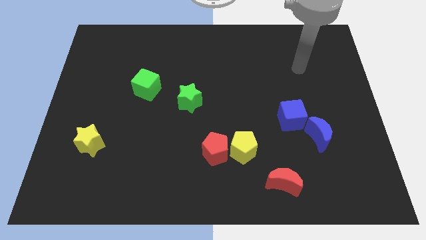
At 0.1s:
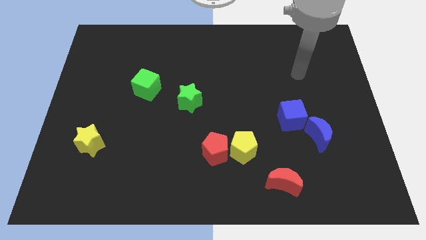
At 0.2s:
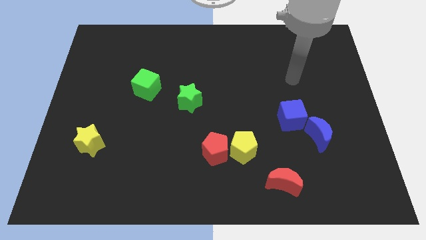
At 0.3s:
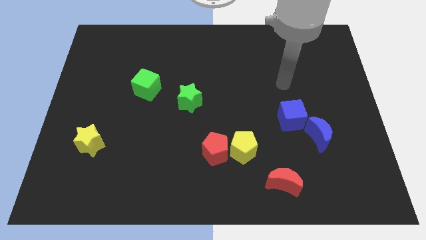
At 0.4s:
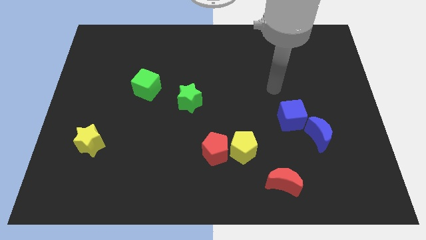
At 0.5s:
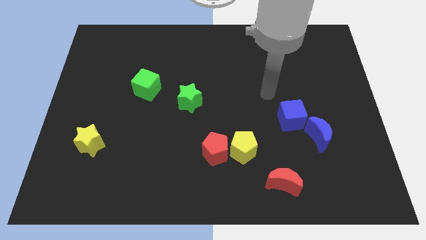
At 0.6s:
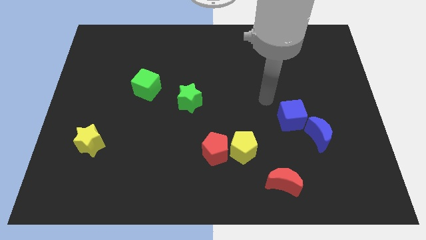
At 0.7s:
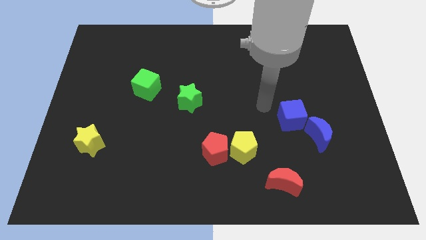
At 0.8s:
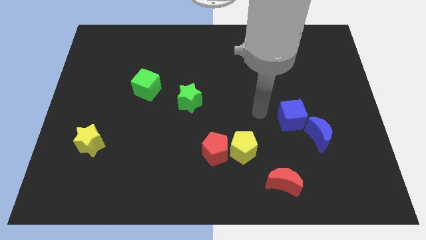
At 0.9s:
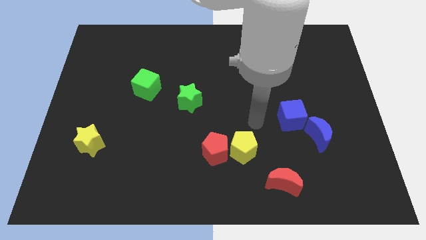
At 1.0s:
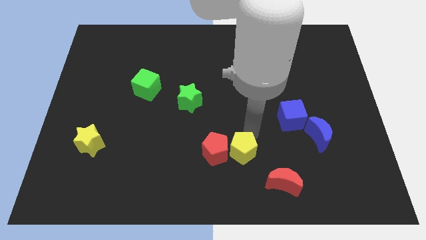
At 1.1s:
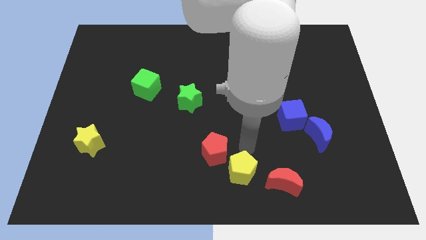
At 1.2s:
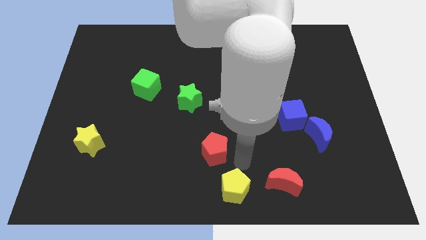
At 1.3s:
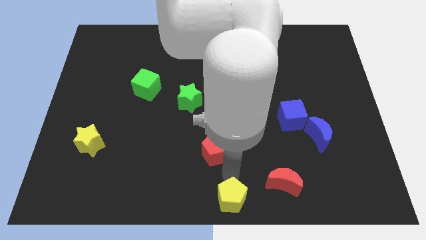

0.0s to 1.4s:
pull the red pentagon apart from the yellow pentagon

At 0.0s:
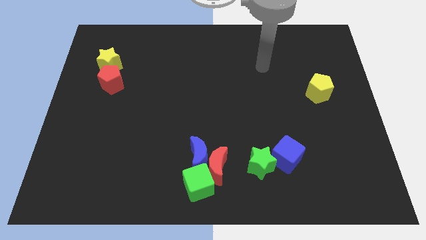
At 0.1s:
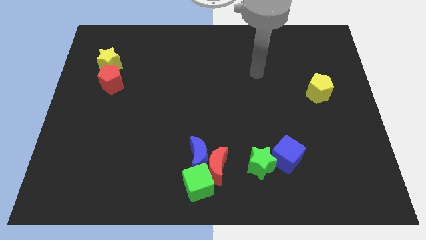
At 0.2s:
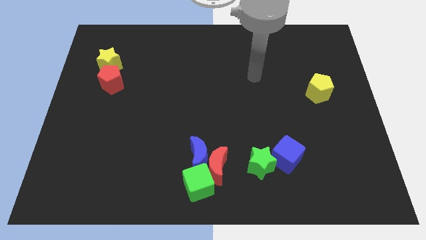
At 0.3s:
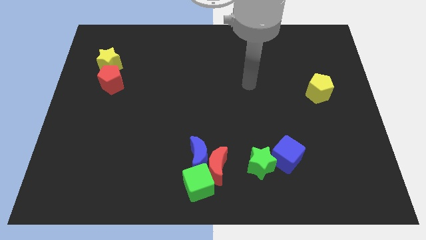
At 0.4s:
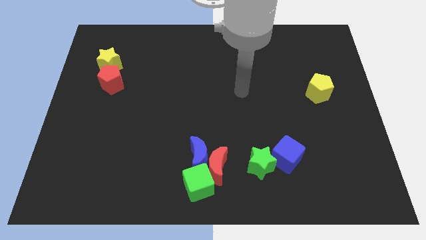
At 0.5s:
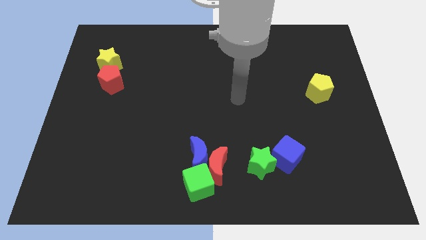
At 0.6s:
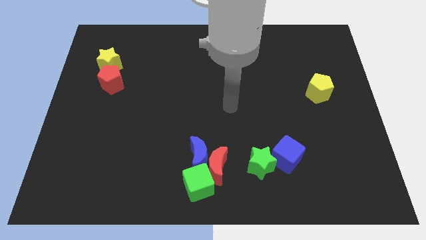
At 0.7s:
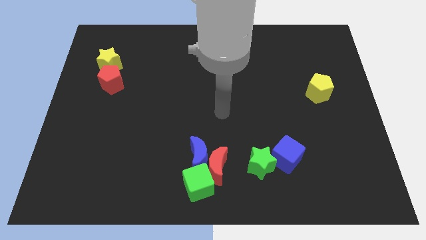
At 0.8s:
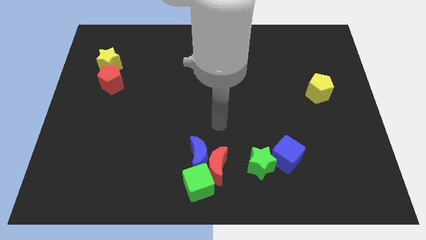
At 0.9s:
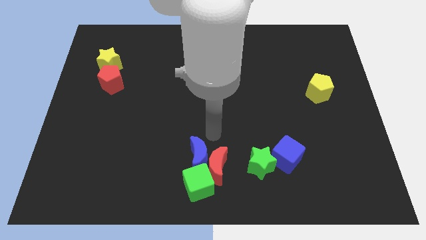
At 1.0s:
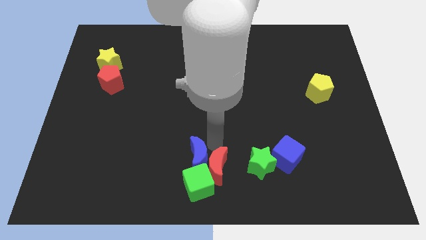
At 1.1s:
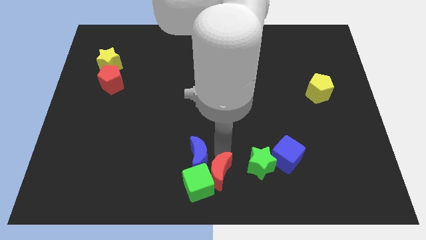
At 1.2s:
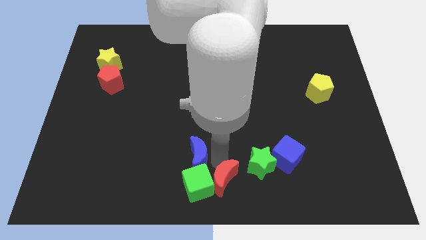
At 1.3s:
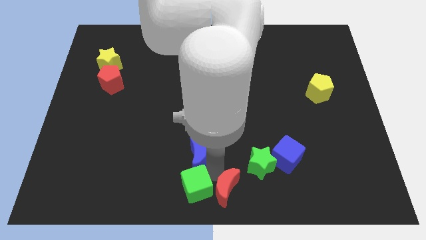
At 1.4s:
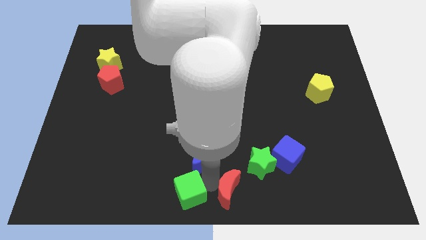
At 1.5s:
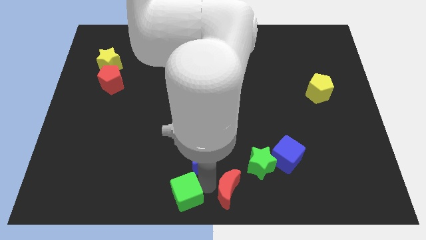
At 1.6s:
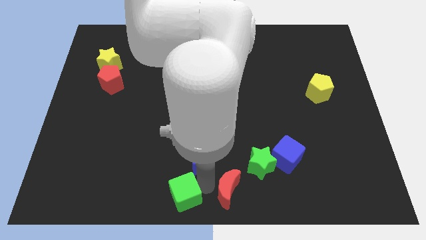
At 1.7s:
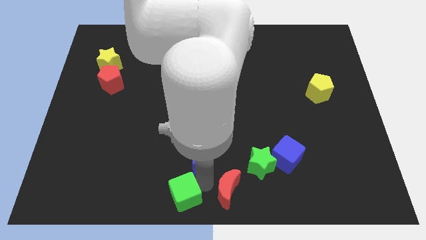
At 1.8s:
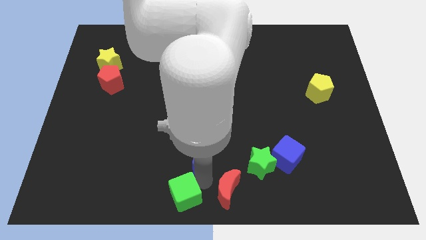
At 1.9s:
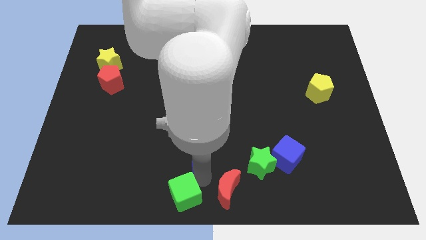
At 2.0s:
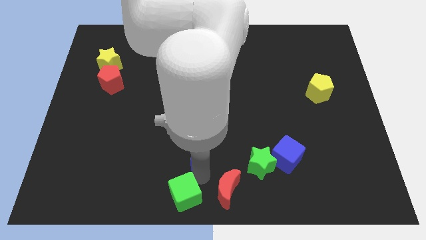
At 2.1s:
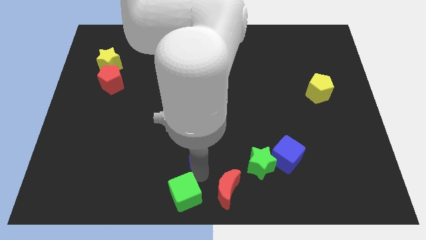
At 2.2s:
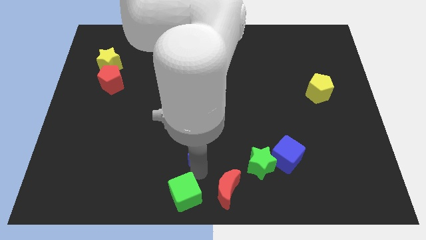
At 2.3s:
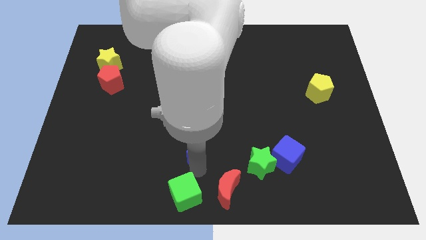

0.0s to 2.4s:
pull the blue moon apart from the red moon and green cube

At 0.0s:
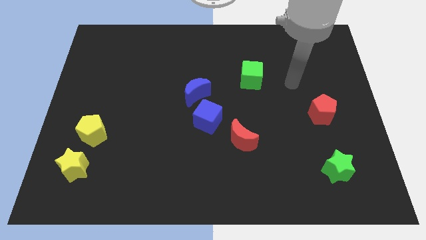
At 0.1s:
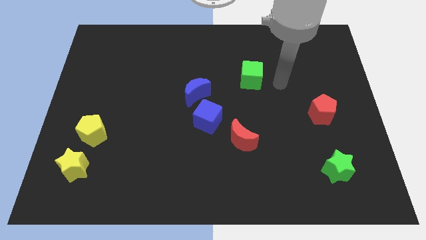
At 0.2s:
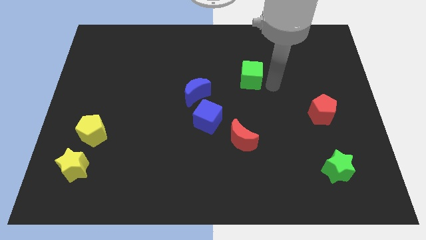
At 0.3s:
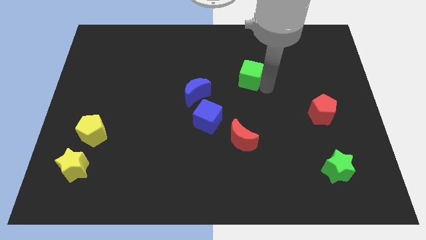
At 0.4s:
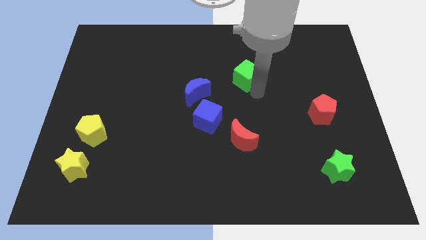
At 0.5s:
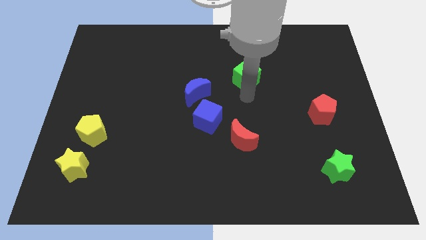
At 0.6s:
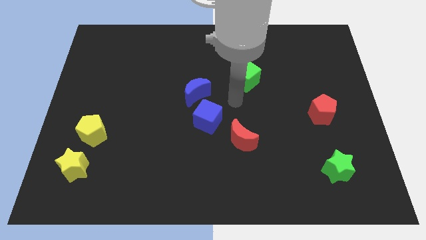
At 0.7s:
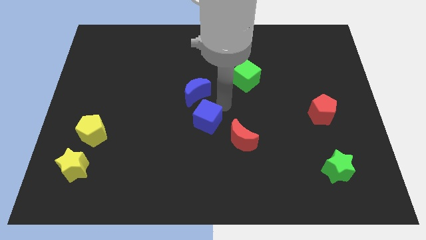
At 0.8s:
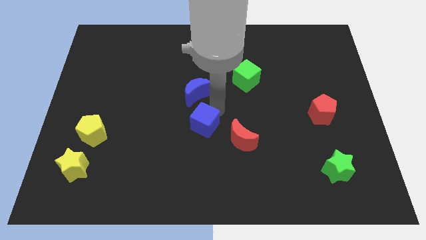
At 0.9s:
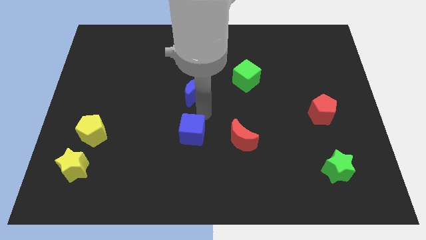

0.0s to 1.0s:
move the blue moon away from the blue cube

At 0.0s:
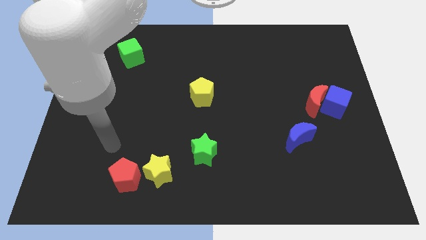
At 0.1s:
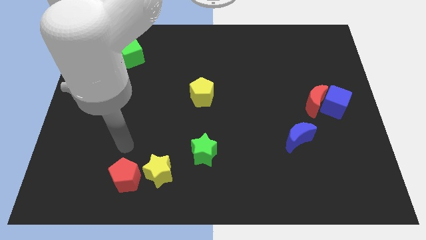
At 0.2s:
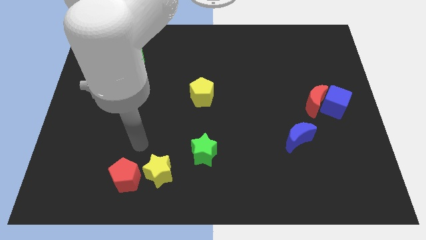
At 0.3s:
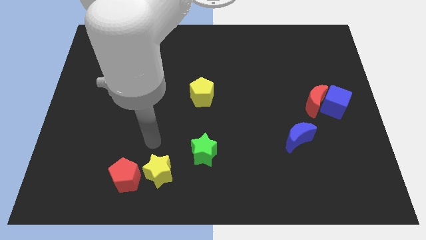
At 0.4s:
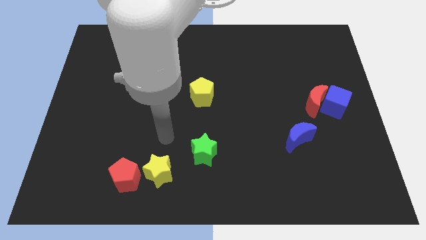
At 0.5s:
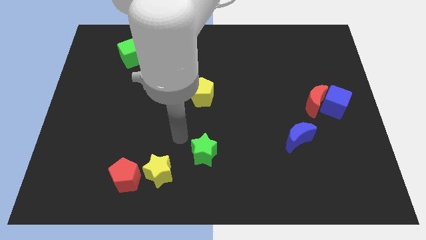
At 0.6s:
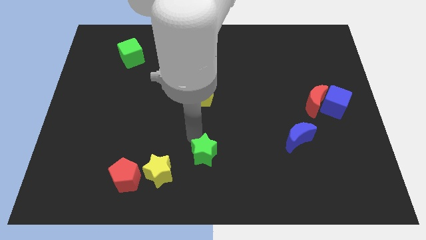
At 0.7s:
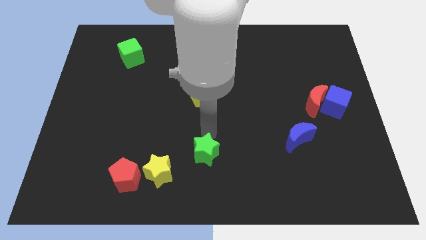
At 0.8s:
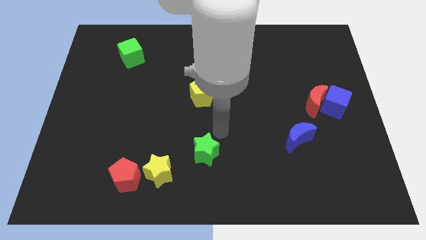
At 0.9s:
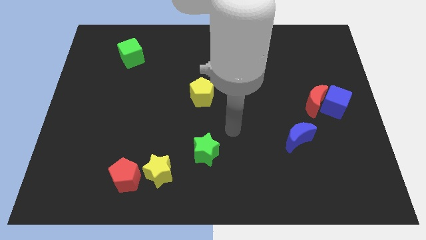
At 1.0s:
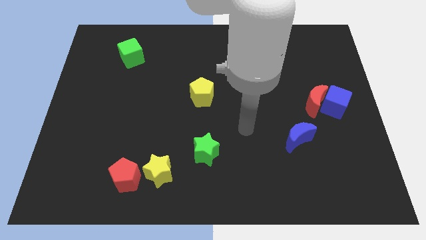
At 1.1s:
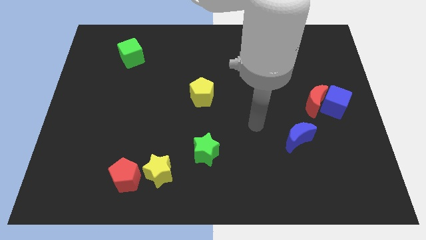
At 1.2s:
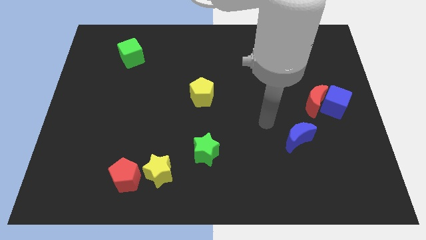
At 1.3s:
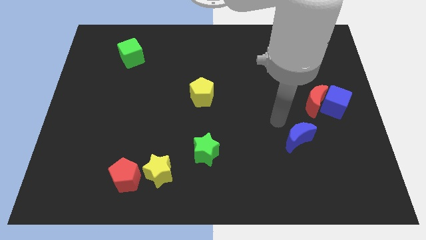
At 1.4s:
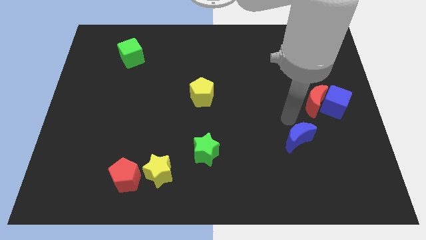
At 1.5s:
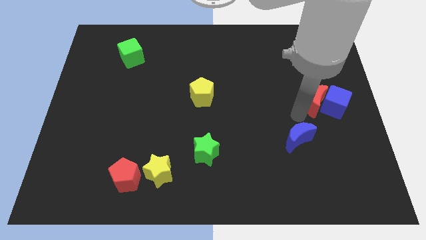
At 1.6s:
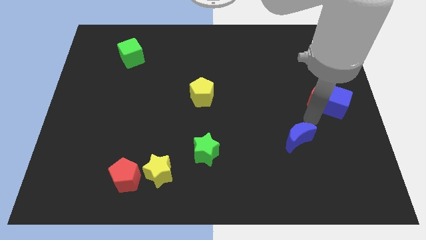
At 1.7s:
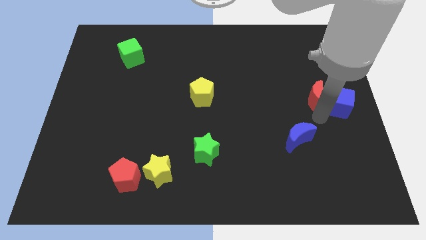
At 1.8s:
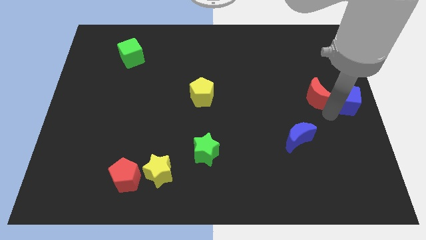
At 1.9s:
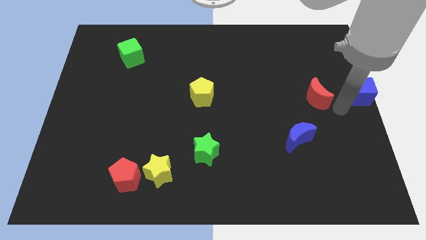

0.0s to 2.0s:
separate the red moon from the blue cube

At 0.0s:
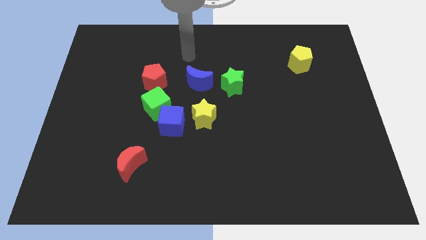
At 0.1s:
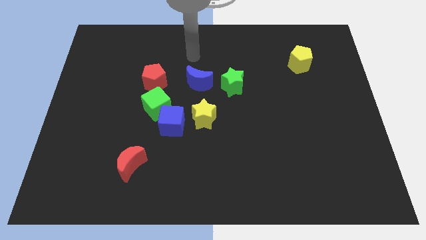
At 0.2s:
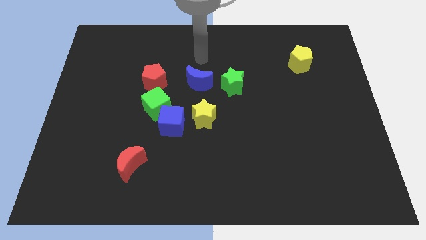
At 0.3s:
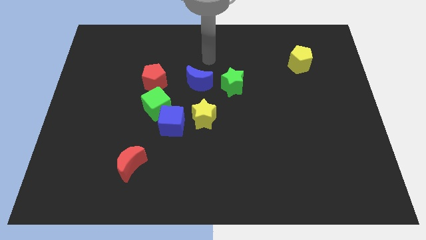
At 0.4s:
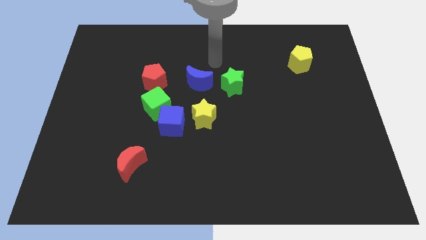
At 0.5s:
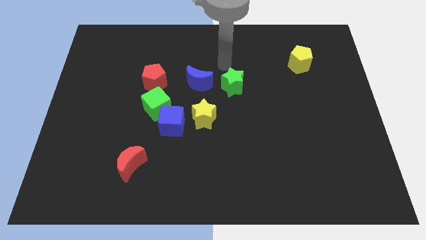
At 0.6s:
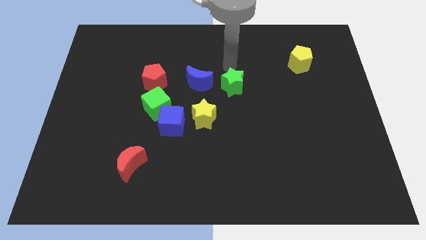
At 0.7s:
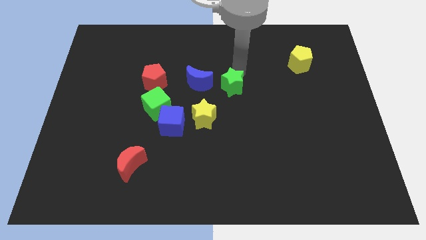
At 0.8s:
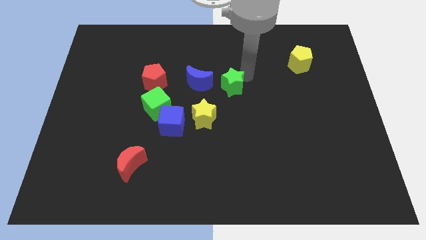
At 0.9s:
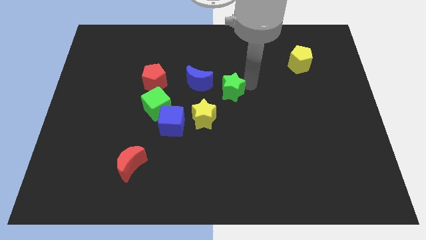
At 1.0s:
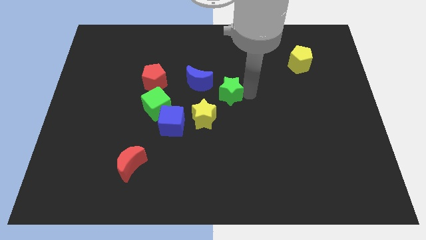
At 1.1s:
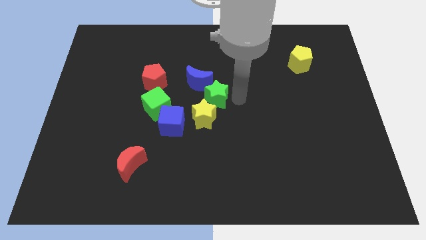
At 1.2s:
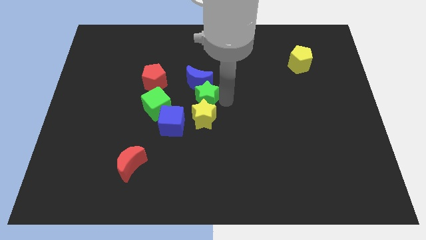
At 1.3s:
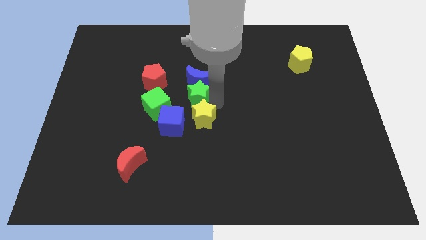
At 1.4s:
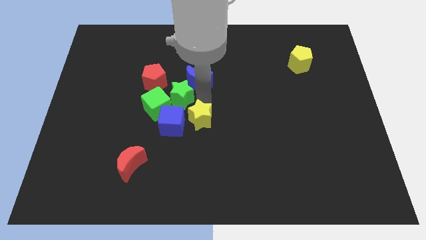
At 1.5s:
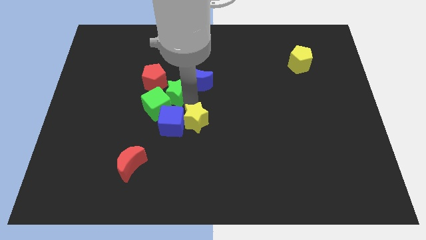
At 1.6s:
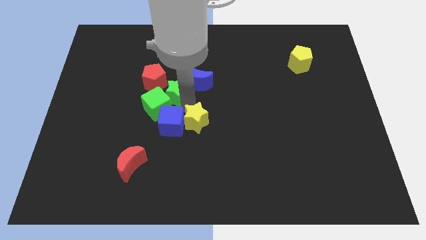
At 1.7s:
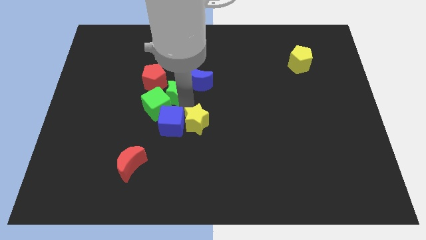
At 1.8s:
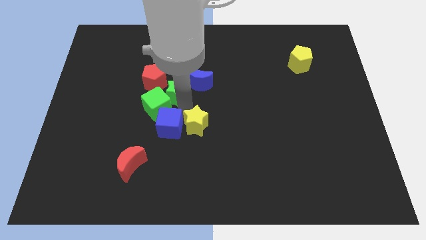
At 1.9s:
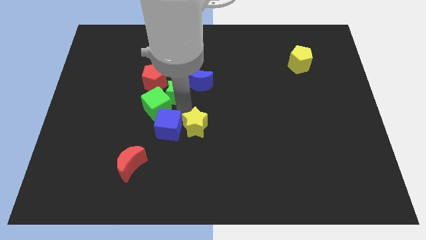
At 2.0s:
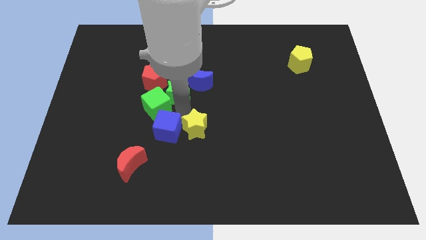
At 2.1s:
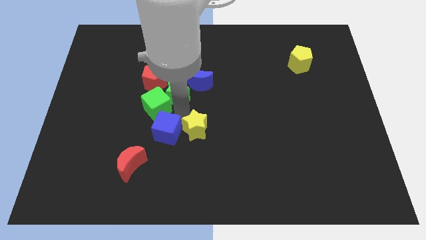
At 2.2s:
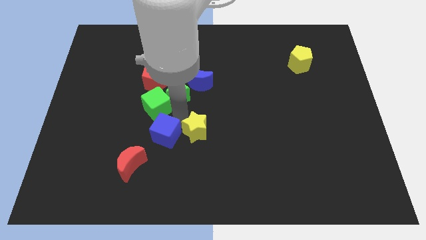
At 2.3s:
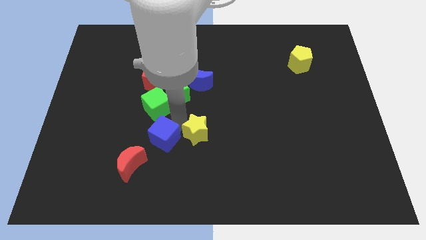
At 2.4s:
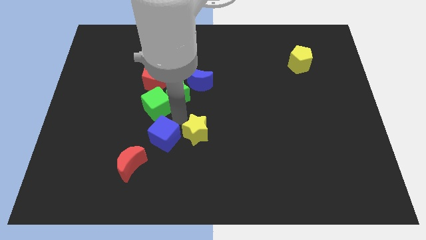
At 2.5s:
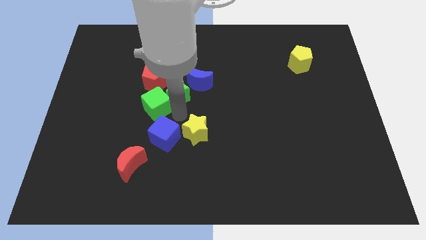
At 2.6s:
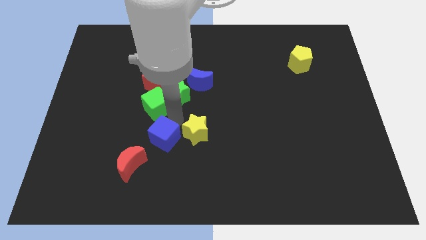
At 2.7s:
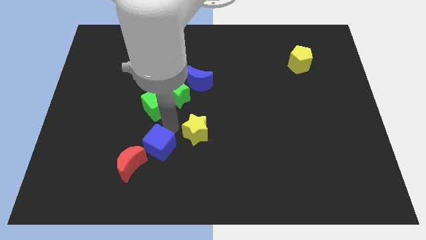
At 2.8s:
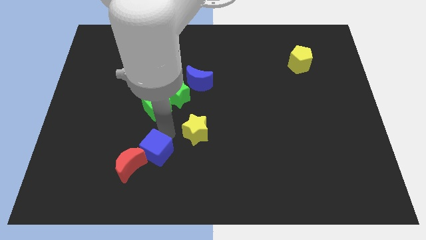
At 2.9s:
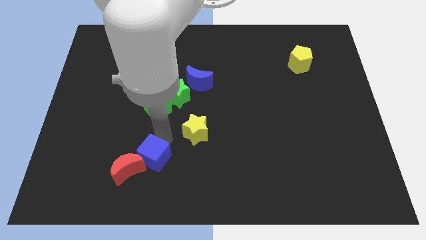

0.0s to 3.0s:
separate the blue cube from the green cube and yellow star
